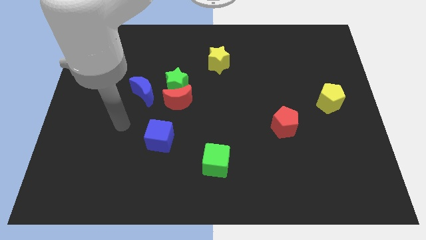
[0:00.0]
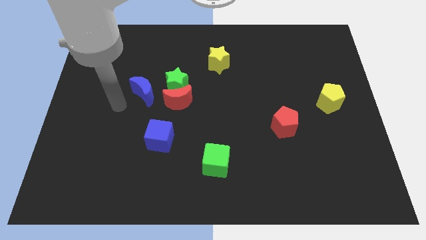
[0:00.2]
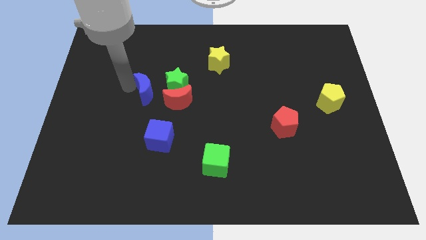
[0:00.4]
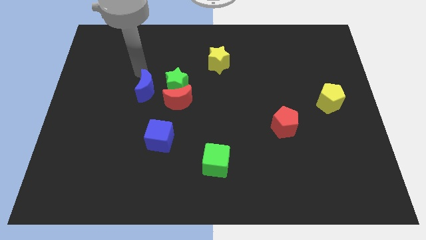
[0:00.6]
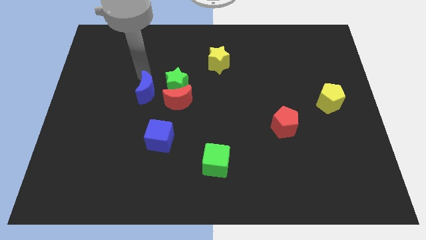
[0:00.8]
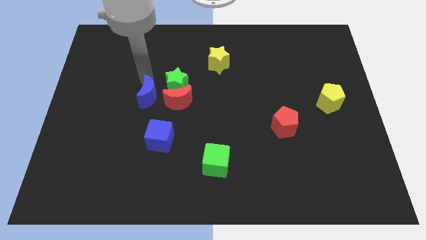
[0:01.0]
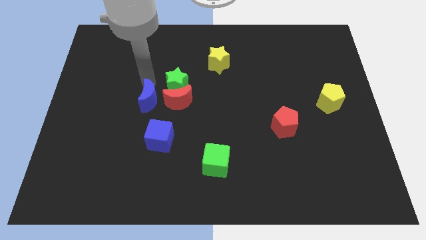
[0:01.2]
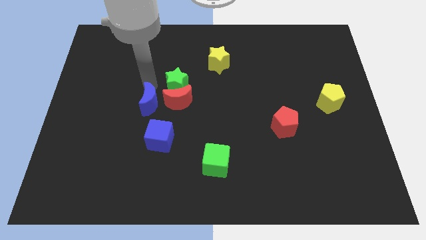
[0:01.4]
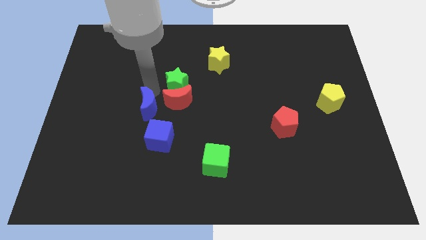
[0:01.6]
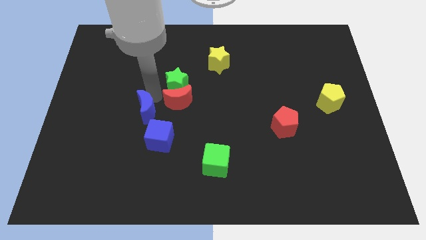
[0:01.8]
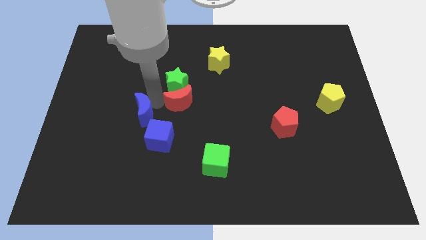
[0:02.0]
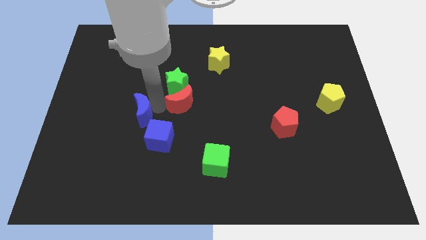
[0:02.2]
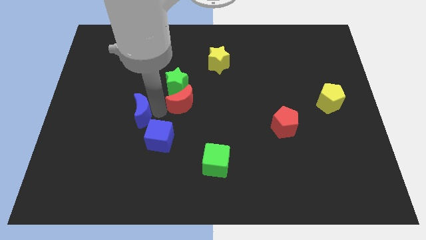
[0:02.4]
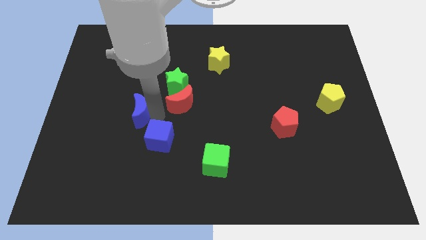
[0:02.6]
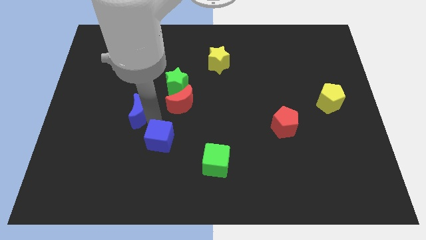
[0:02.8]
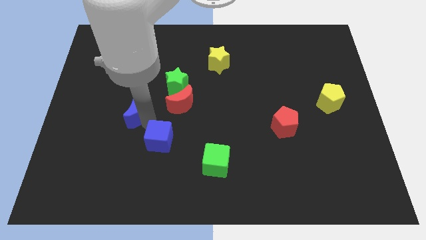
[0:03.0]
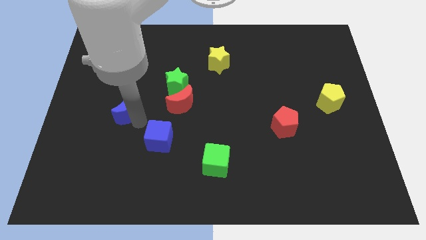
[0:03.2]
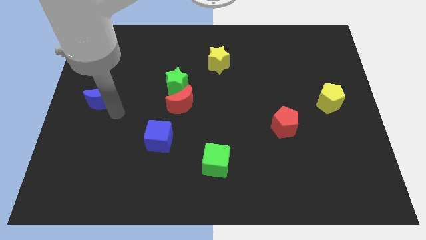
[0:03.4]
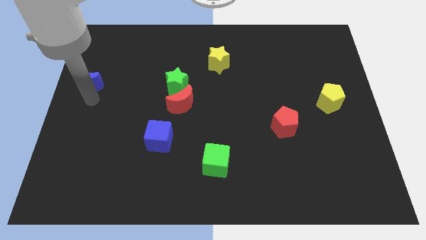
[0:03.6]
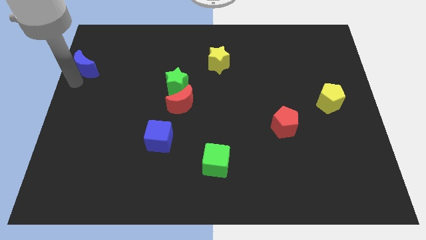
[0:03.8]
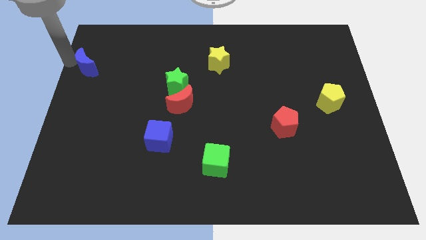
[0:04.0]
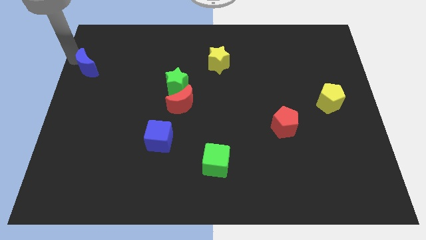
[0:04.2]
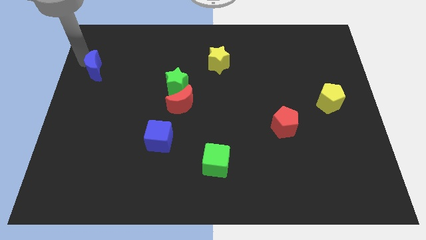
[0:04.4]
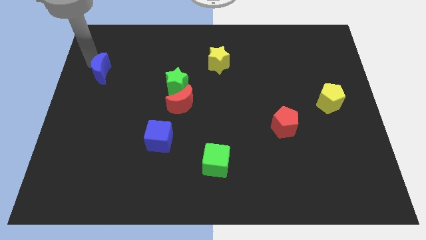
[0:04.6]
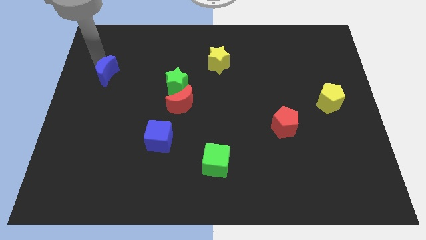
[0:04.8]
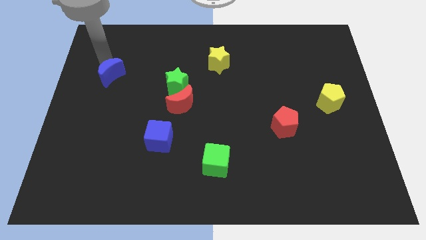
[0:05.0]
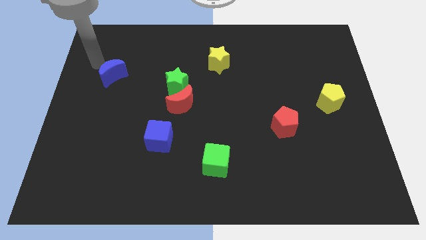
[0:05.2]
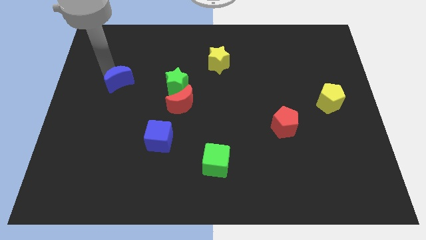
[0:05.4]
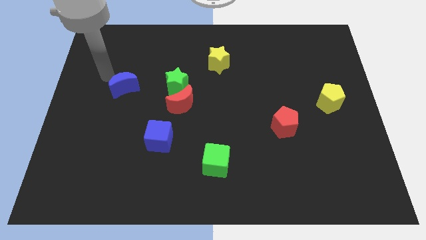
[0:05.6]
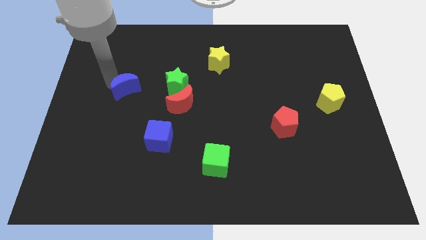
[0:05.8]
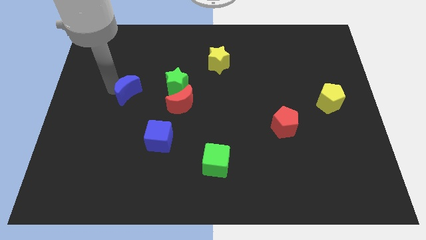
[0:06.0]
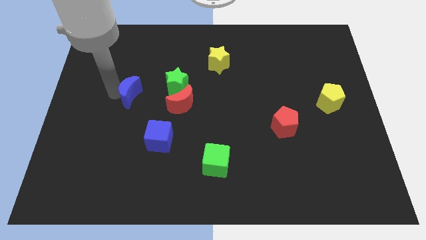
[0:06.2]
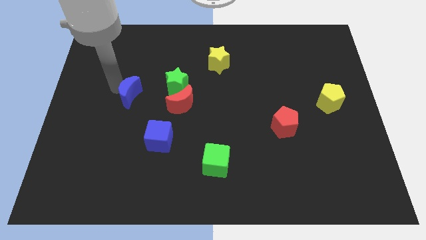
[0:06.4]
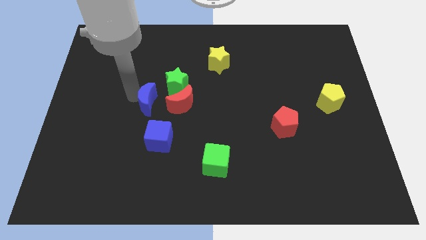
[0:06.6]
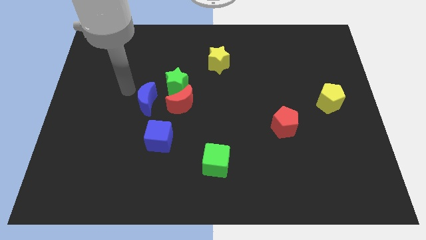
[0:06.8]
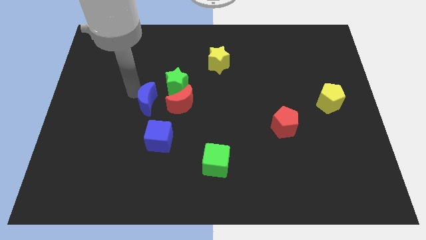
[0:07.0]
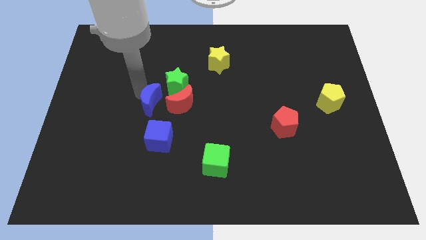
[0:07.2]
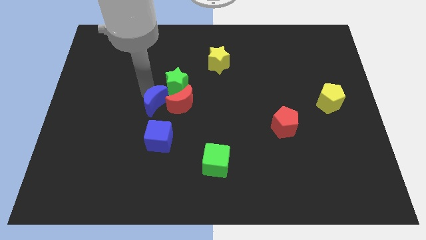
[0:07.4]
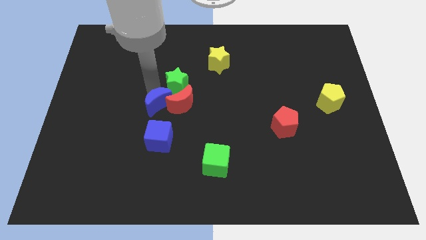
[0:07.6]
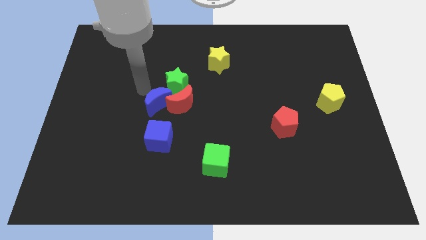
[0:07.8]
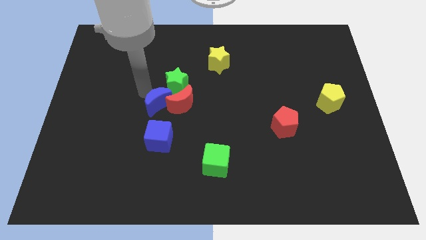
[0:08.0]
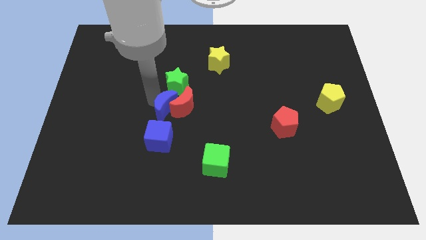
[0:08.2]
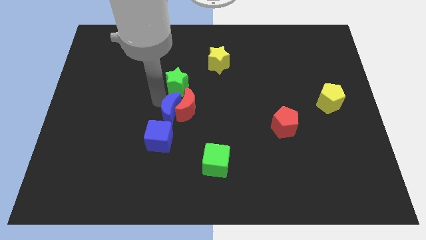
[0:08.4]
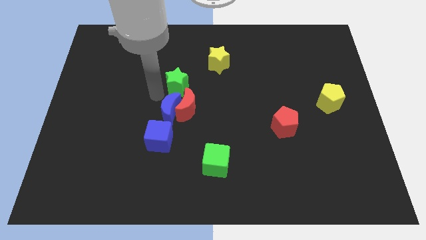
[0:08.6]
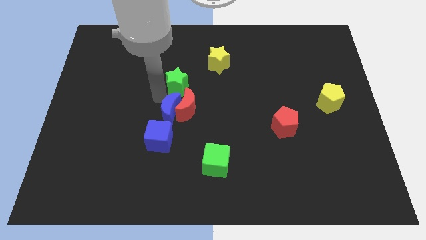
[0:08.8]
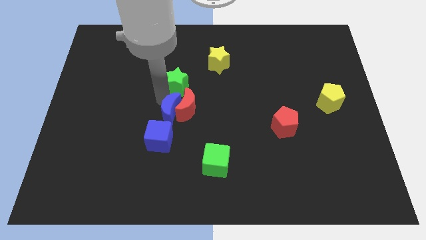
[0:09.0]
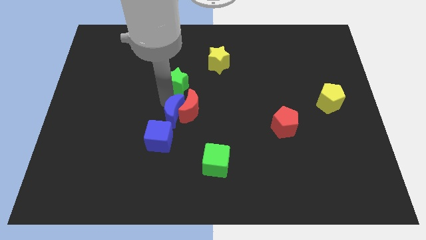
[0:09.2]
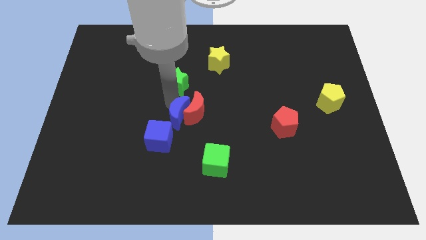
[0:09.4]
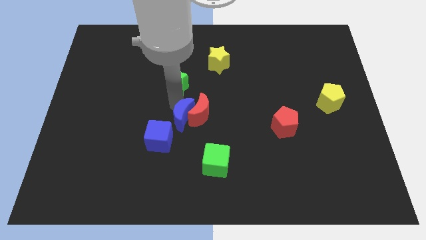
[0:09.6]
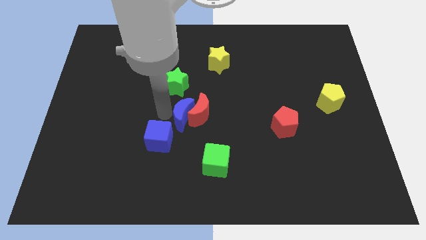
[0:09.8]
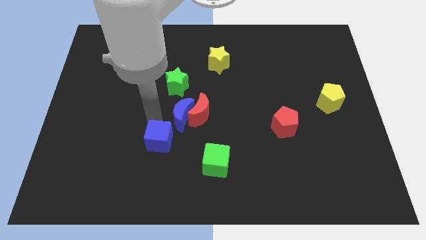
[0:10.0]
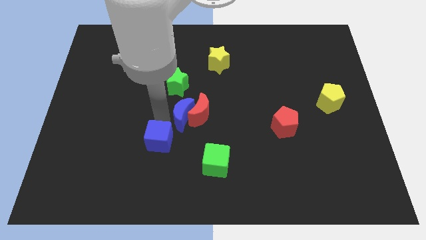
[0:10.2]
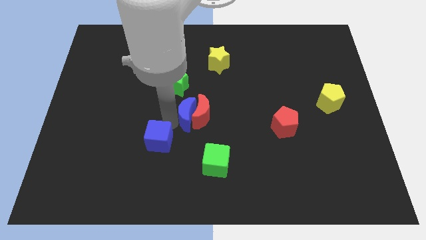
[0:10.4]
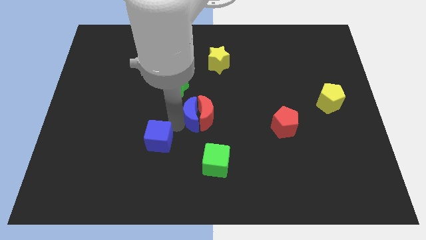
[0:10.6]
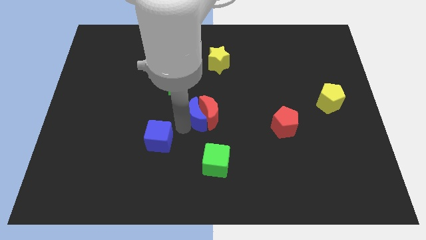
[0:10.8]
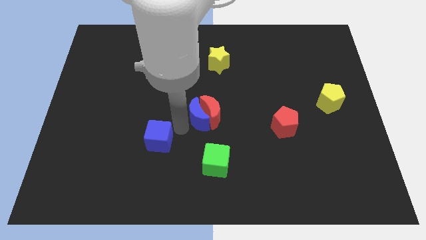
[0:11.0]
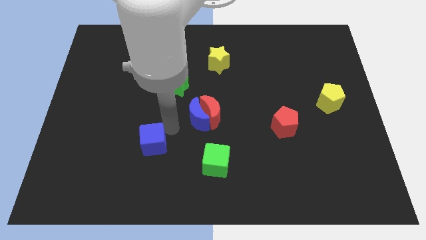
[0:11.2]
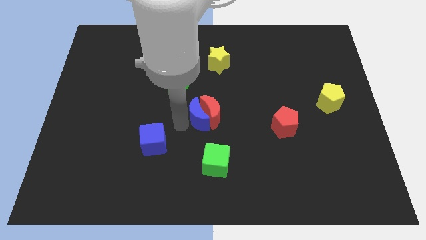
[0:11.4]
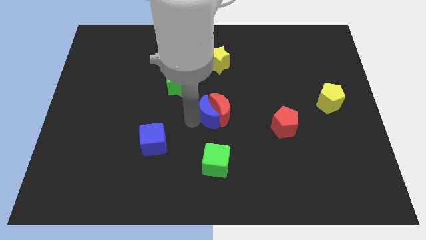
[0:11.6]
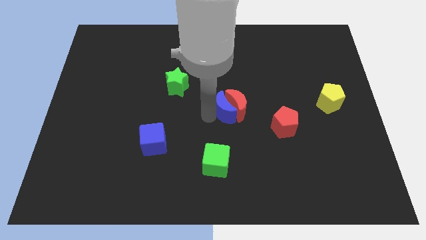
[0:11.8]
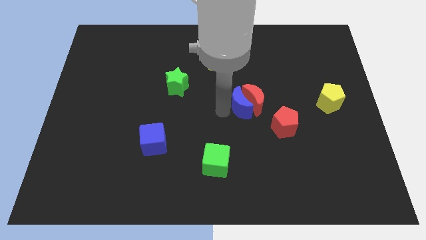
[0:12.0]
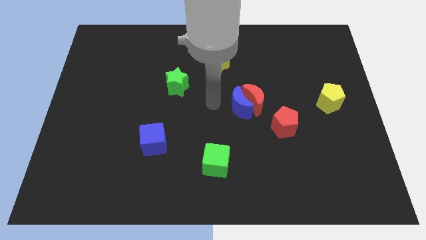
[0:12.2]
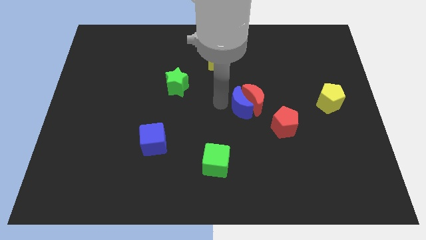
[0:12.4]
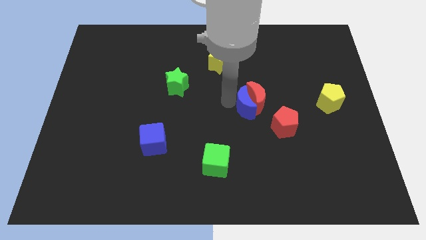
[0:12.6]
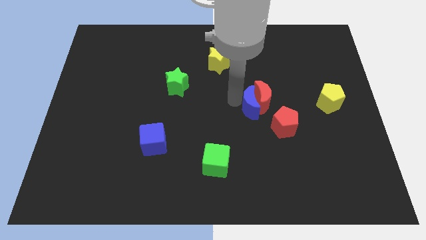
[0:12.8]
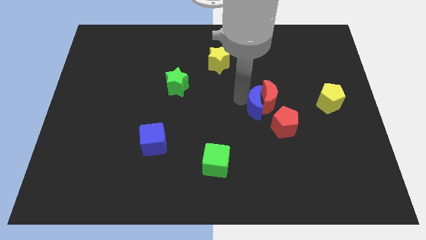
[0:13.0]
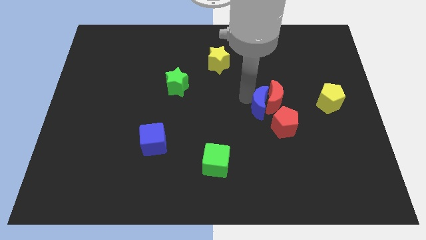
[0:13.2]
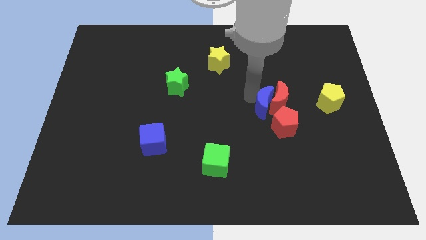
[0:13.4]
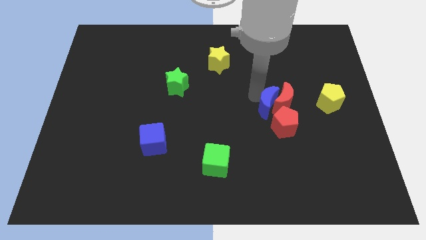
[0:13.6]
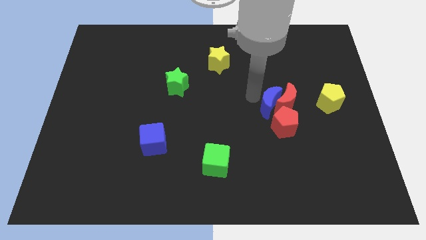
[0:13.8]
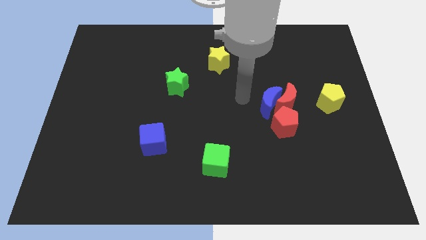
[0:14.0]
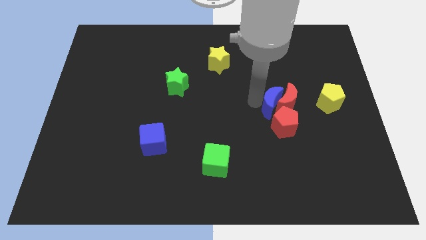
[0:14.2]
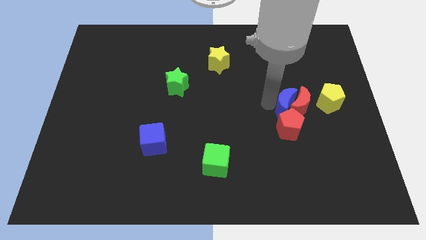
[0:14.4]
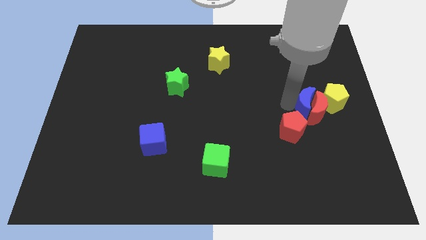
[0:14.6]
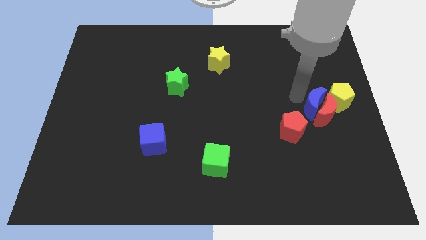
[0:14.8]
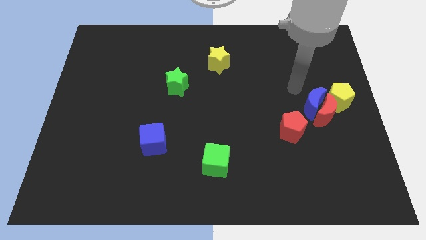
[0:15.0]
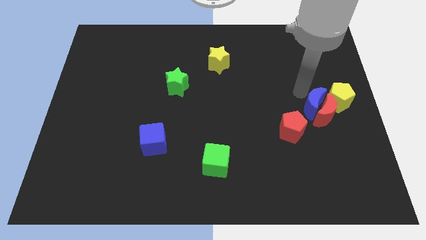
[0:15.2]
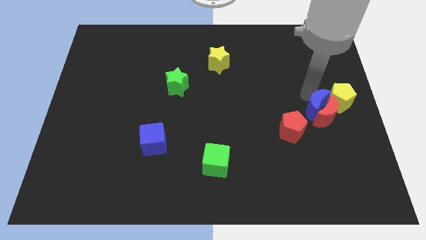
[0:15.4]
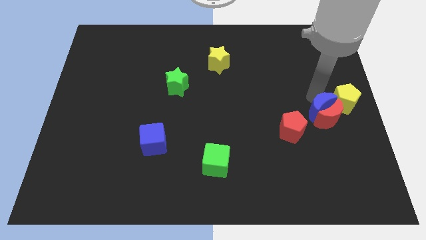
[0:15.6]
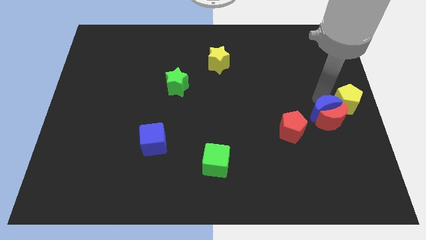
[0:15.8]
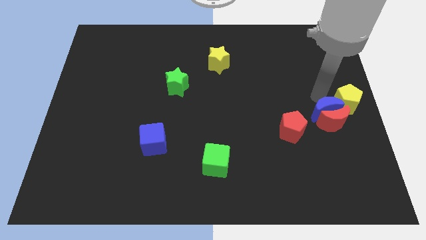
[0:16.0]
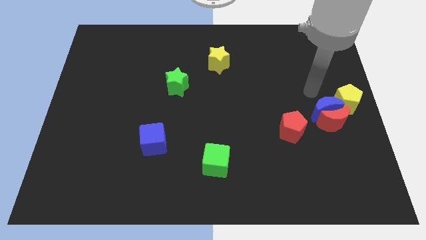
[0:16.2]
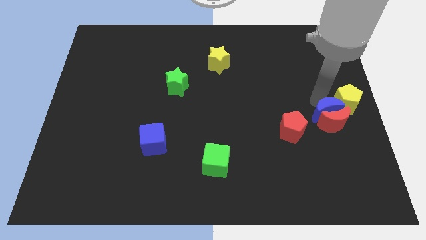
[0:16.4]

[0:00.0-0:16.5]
push the blue moon right of the red pentagon

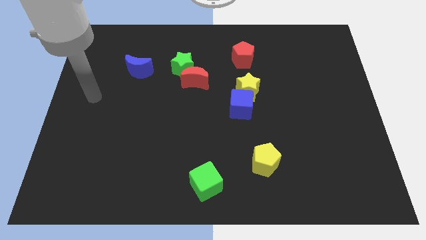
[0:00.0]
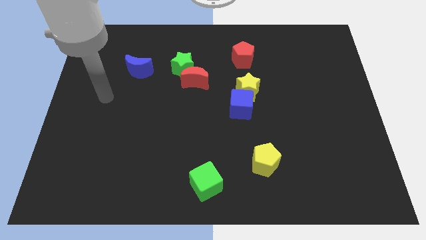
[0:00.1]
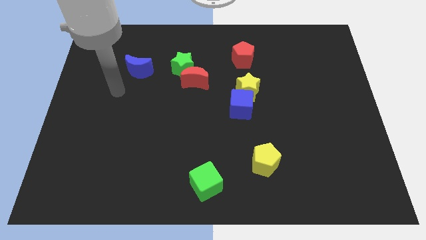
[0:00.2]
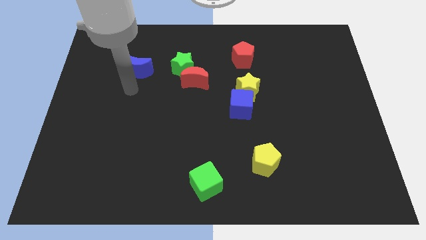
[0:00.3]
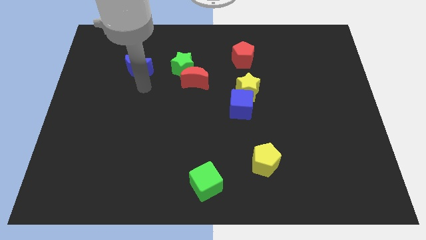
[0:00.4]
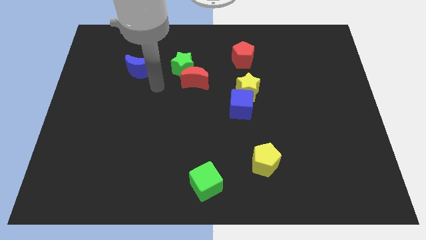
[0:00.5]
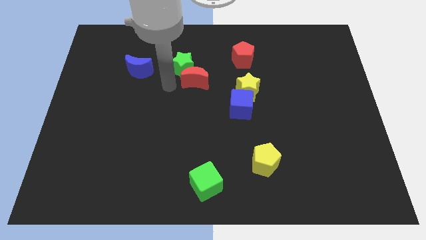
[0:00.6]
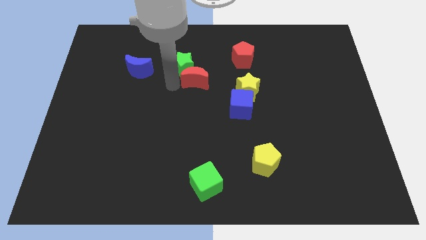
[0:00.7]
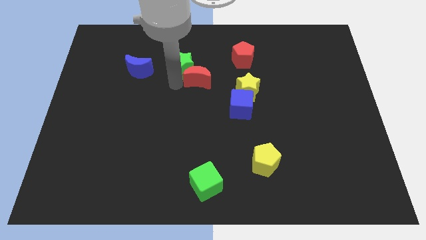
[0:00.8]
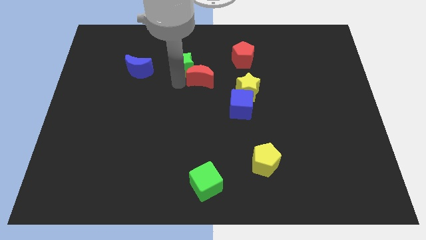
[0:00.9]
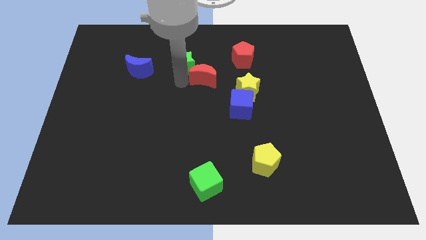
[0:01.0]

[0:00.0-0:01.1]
slide the red moon to the top left of the yellow star
